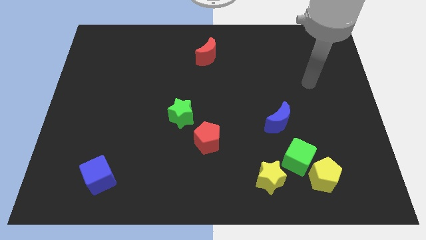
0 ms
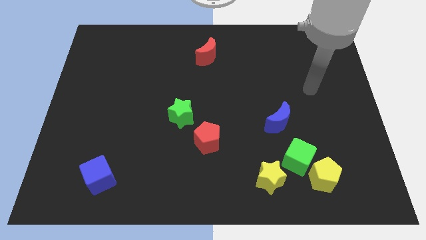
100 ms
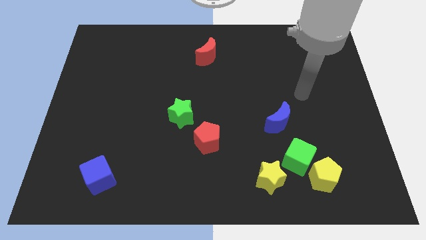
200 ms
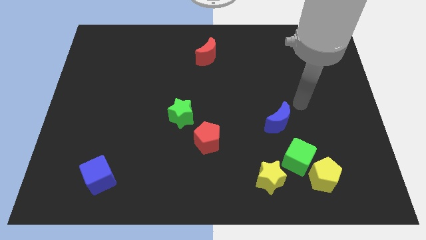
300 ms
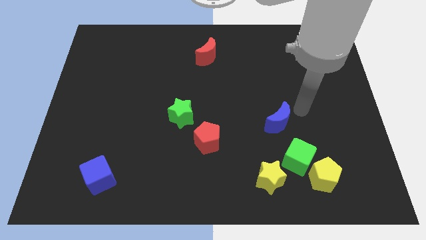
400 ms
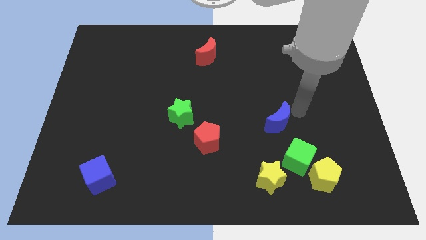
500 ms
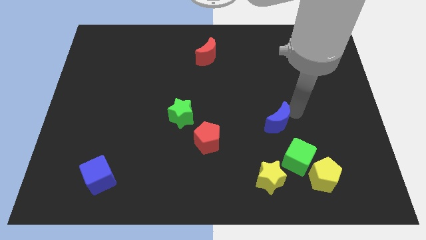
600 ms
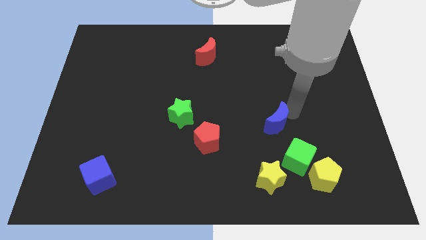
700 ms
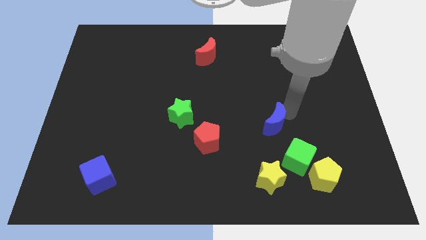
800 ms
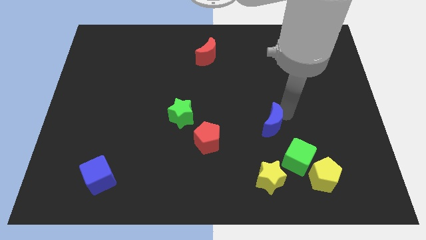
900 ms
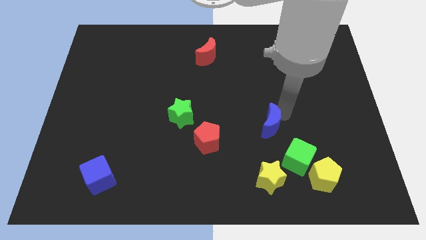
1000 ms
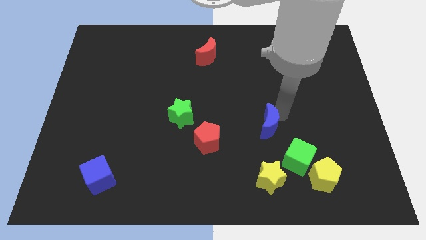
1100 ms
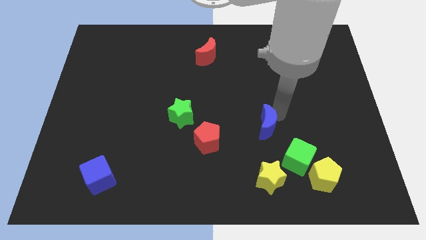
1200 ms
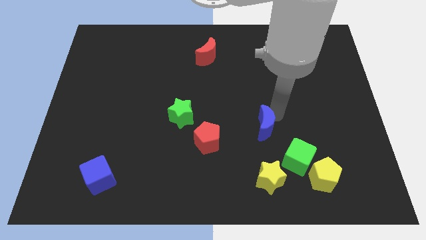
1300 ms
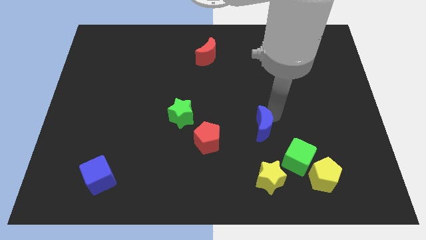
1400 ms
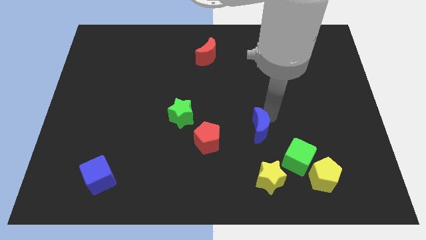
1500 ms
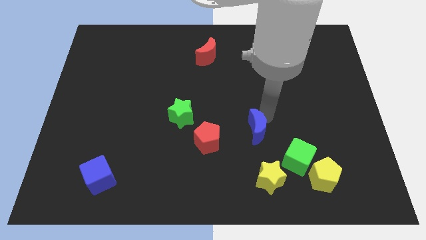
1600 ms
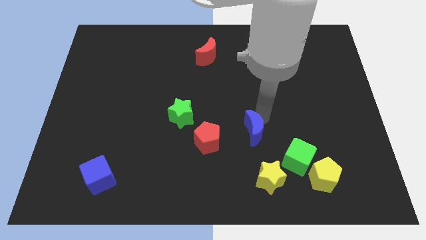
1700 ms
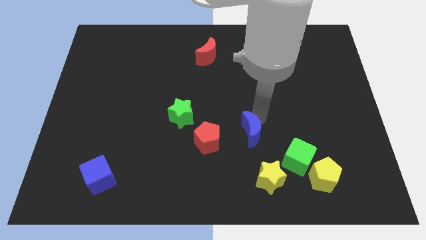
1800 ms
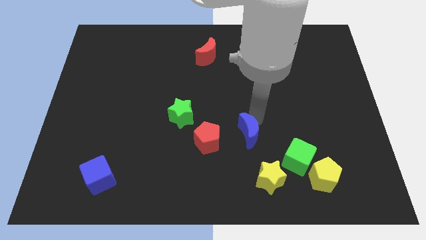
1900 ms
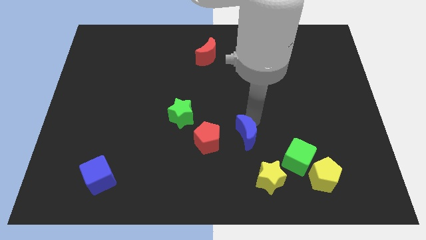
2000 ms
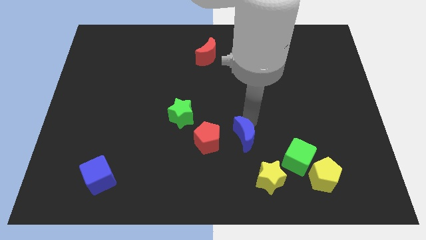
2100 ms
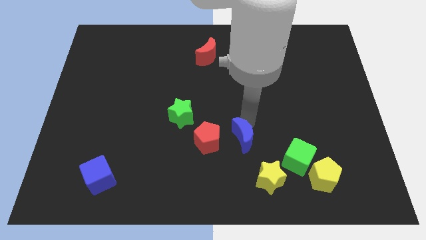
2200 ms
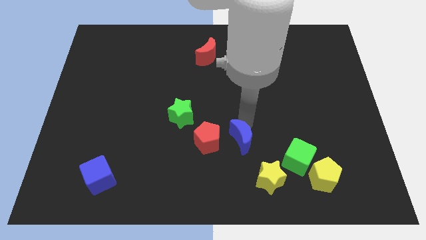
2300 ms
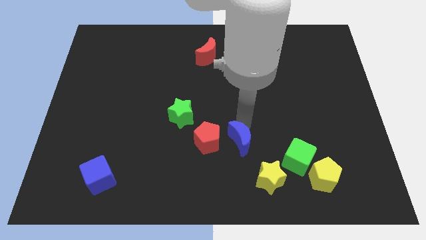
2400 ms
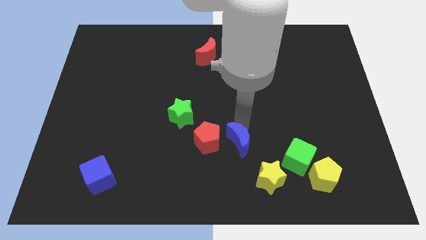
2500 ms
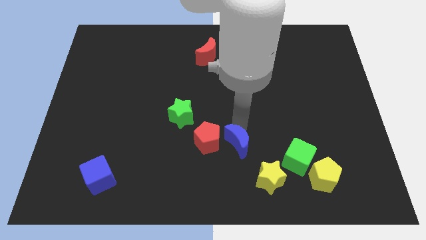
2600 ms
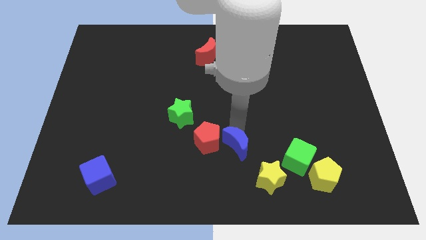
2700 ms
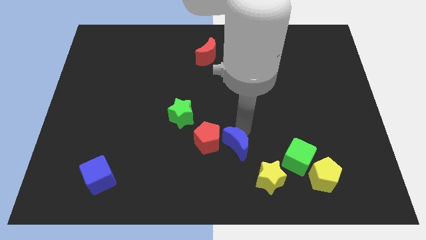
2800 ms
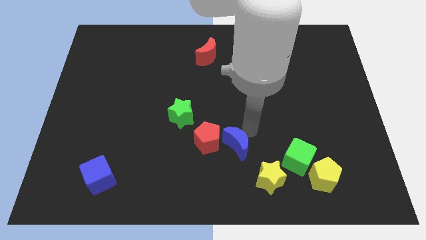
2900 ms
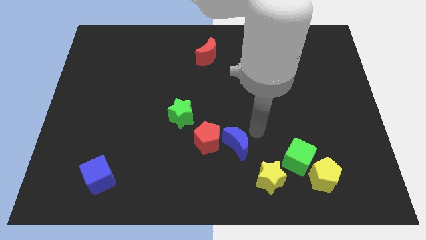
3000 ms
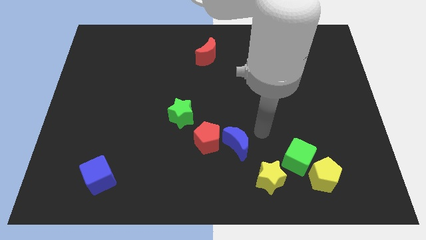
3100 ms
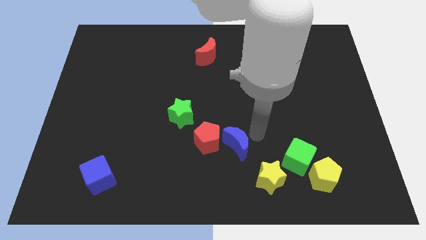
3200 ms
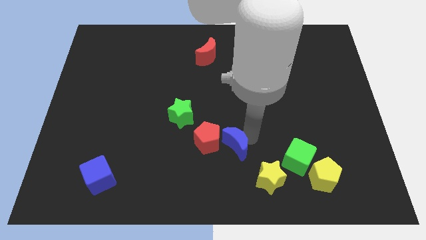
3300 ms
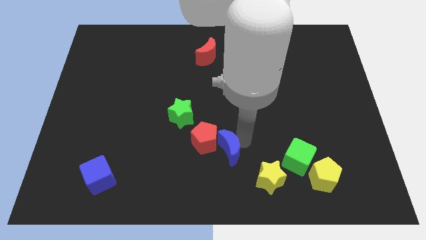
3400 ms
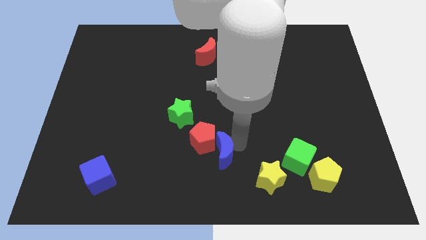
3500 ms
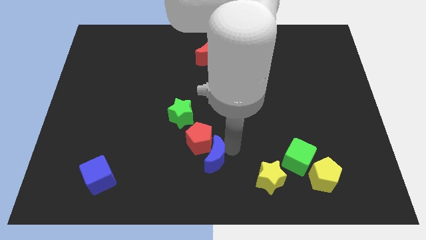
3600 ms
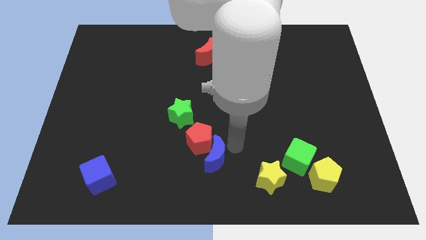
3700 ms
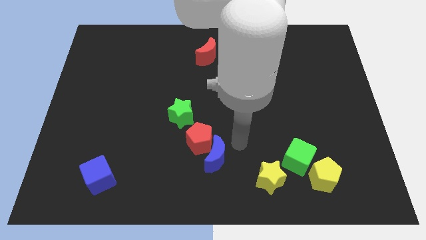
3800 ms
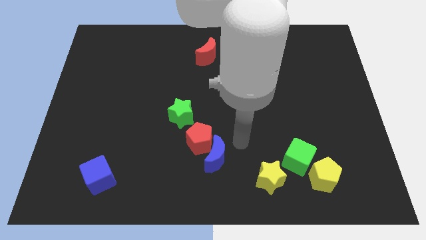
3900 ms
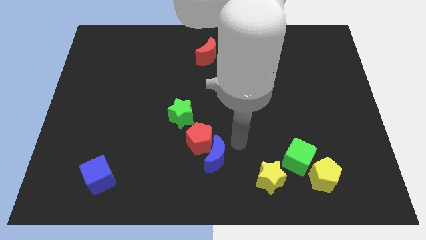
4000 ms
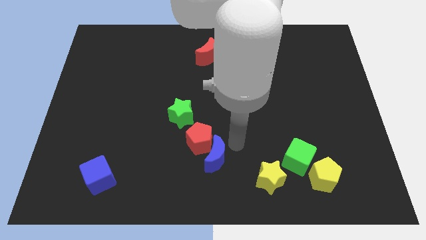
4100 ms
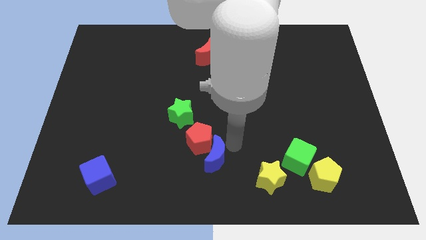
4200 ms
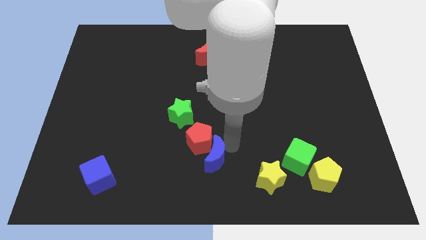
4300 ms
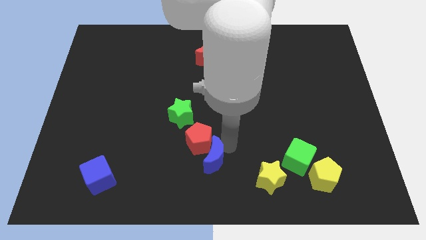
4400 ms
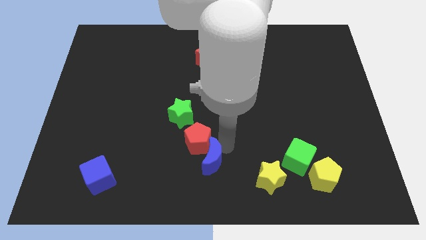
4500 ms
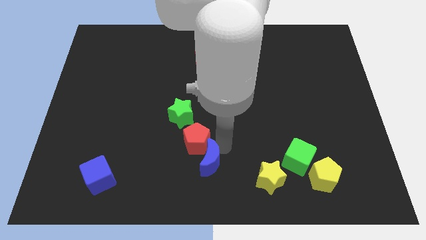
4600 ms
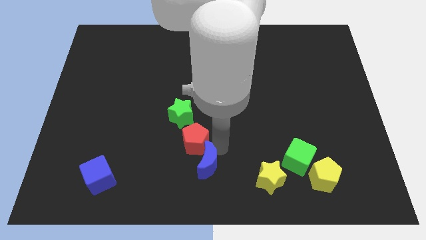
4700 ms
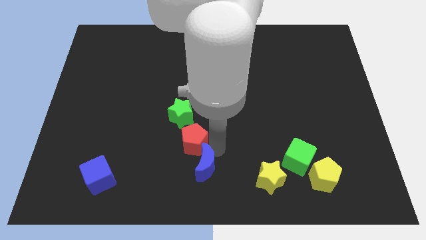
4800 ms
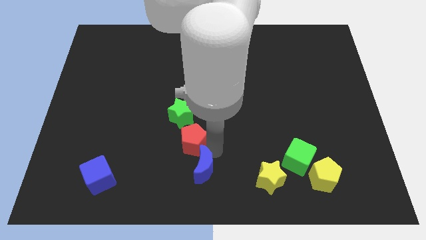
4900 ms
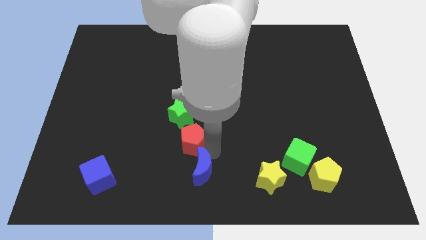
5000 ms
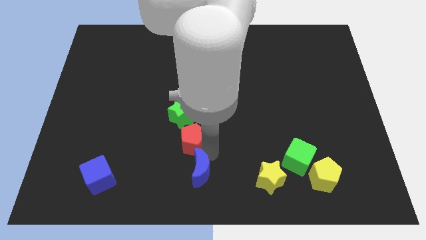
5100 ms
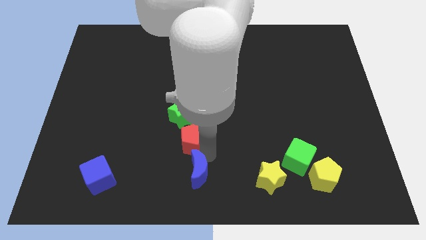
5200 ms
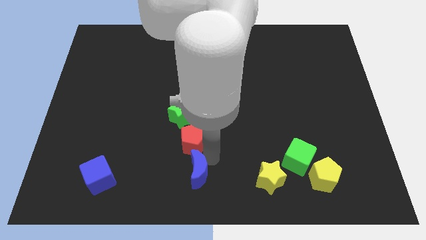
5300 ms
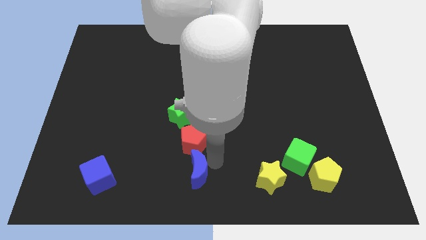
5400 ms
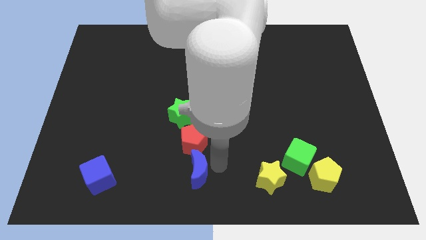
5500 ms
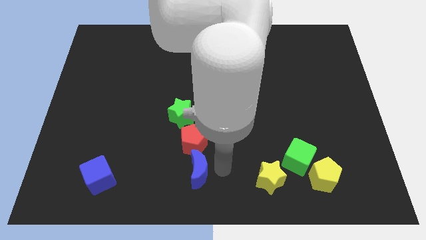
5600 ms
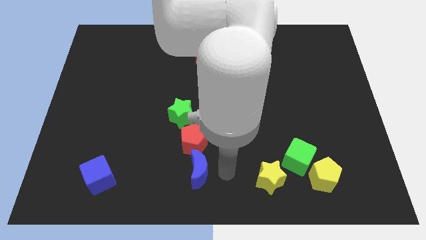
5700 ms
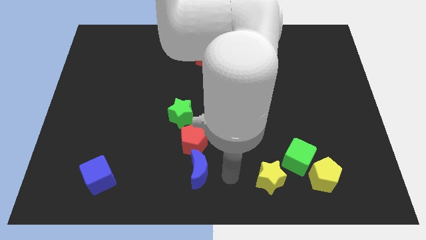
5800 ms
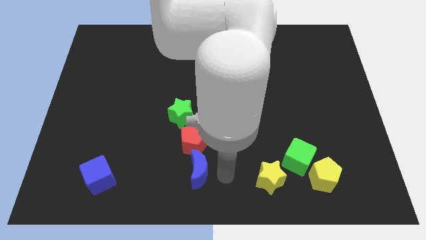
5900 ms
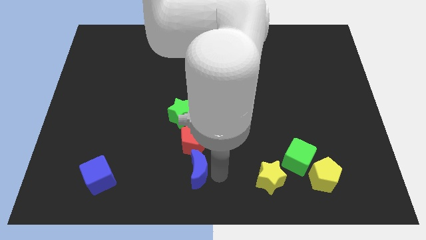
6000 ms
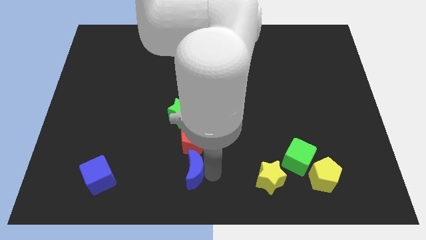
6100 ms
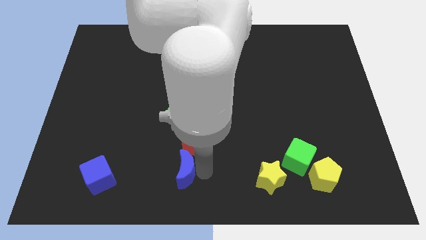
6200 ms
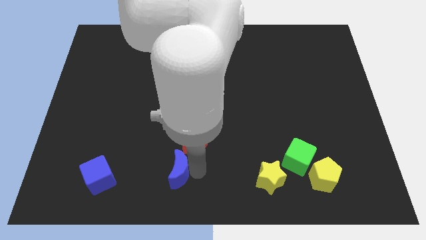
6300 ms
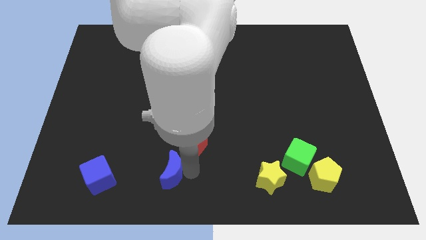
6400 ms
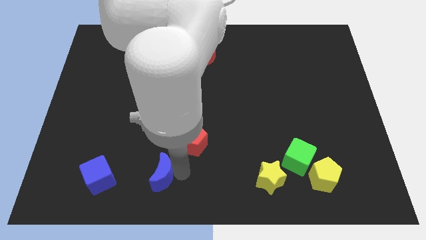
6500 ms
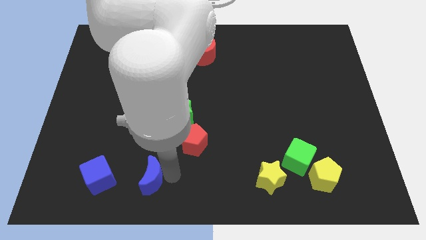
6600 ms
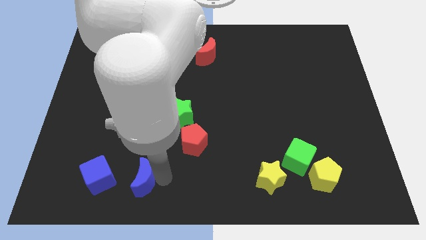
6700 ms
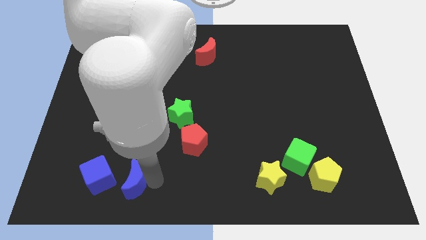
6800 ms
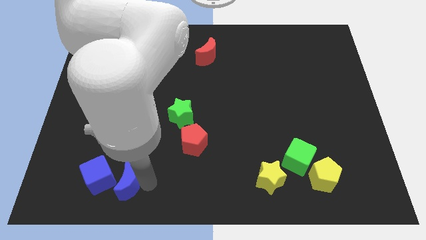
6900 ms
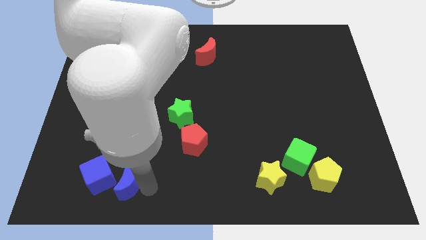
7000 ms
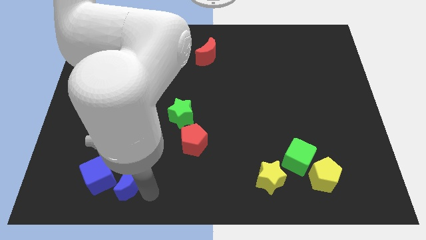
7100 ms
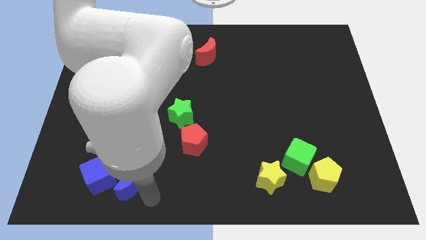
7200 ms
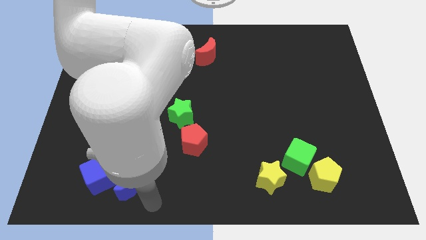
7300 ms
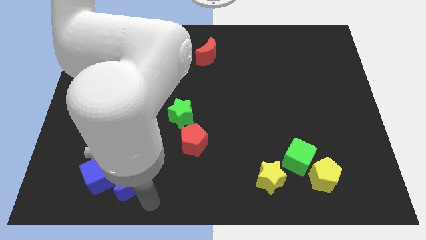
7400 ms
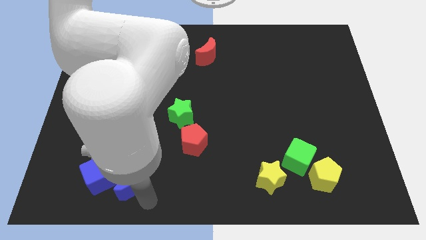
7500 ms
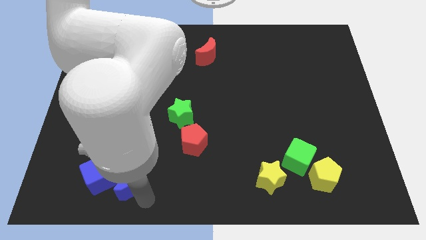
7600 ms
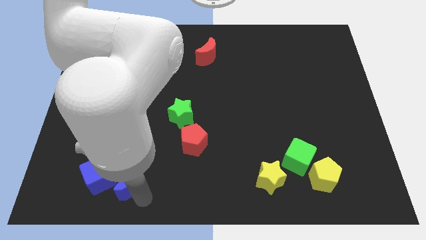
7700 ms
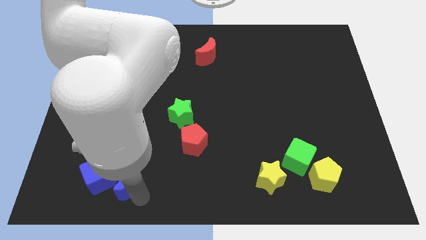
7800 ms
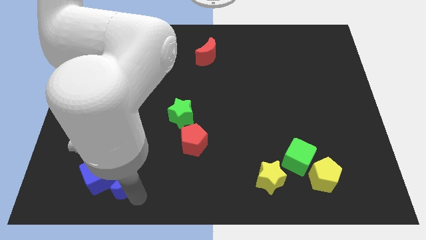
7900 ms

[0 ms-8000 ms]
put the blue moon close to the blue cube
